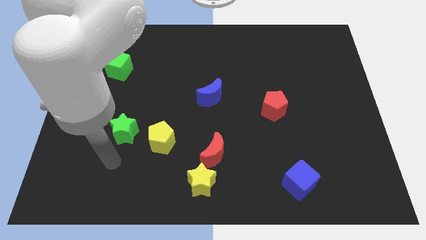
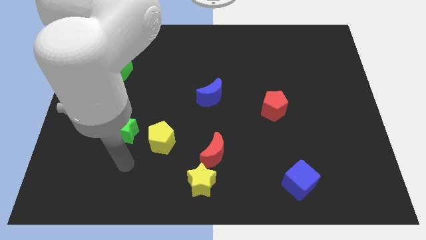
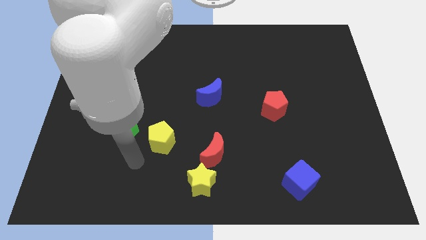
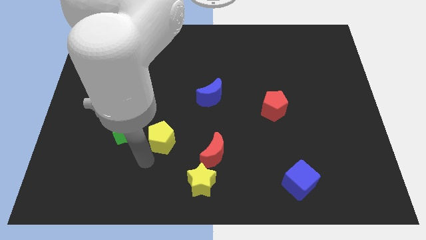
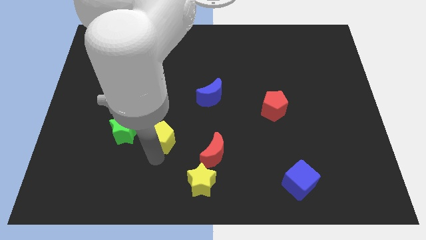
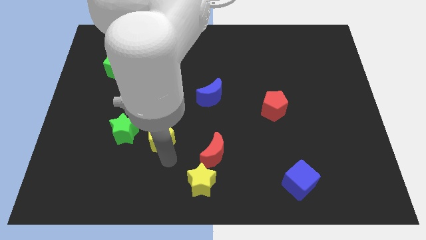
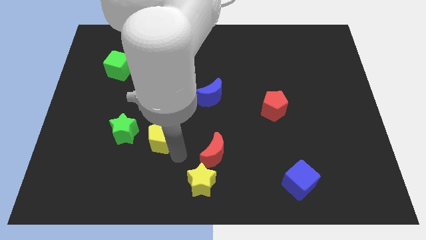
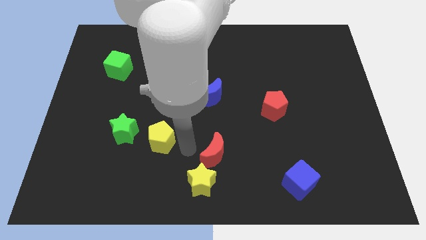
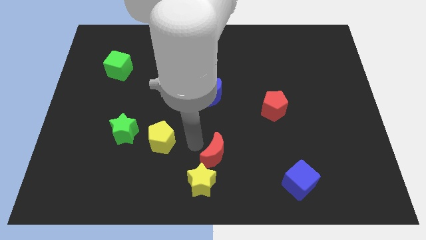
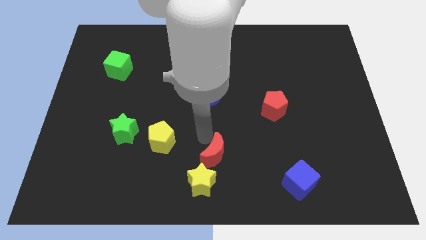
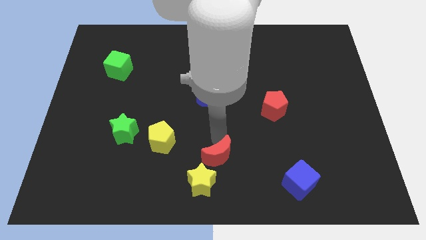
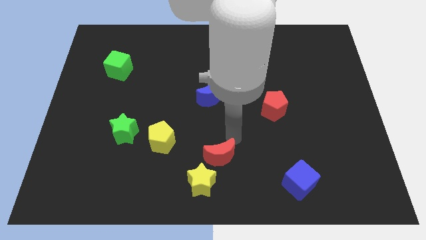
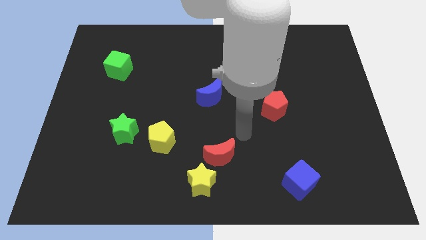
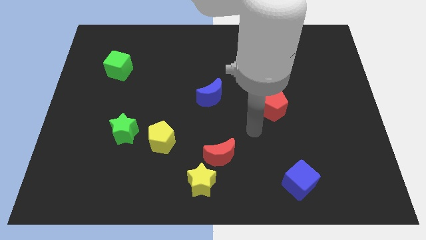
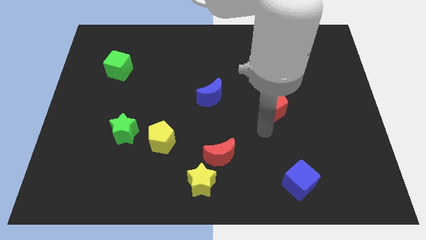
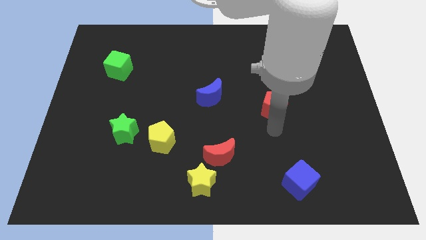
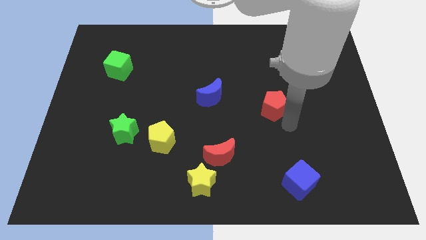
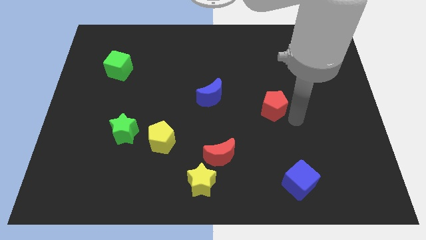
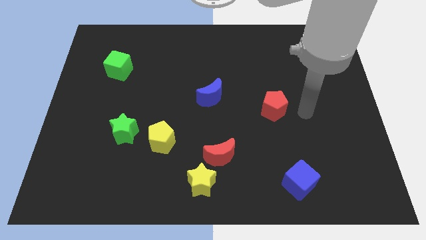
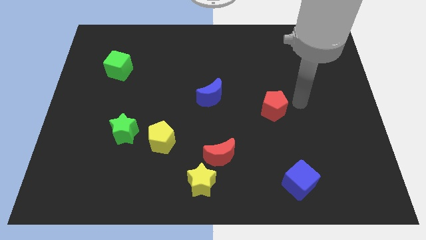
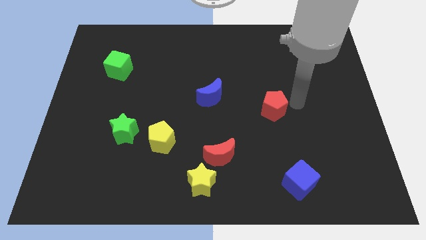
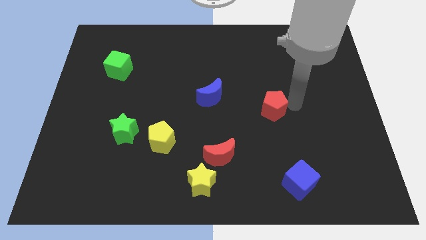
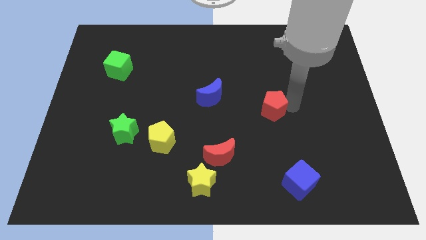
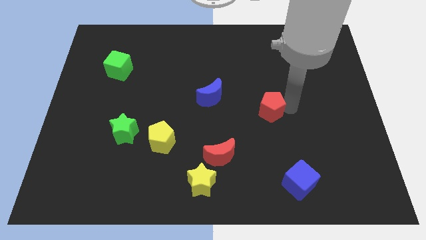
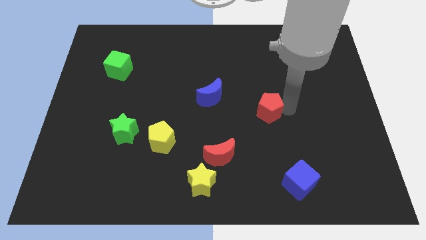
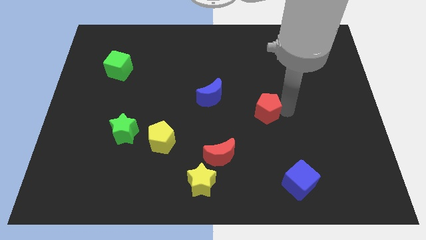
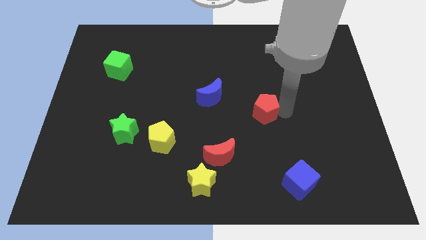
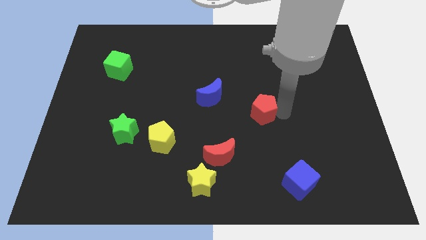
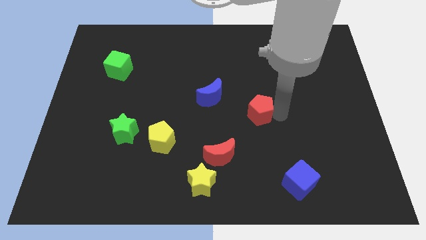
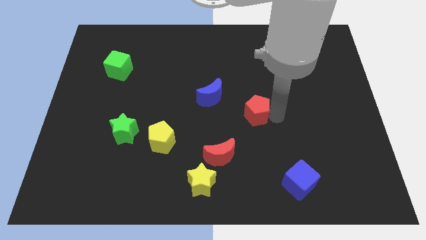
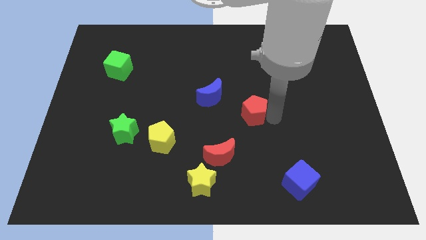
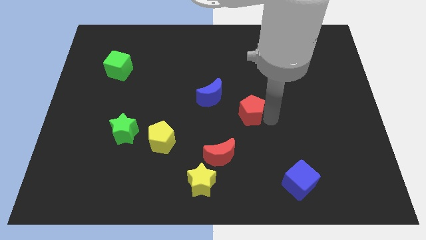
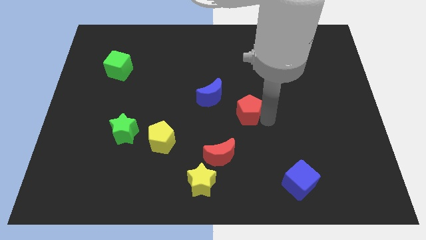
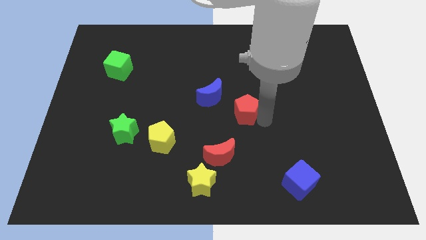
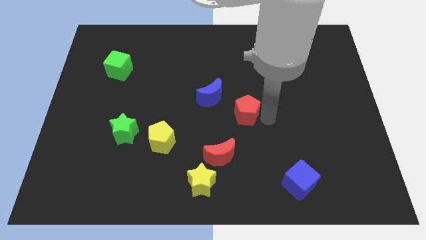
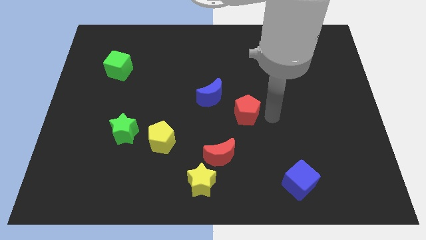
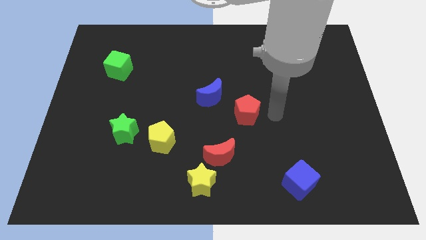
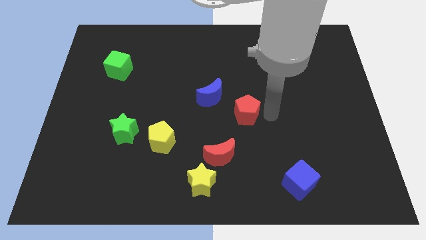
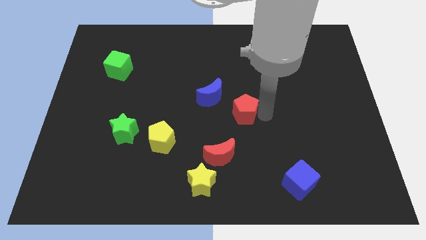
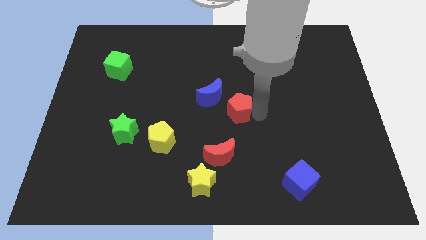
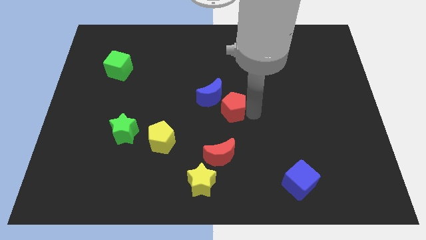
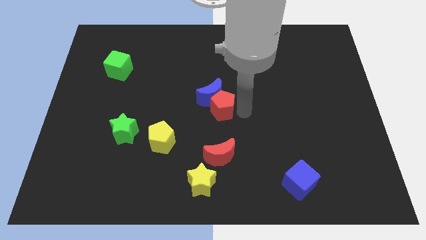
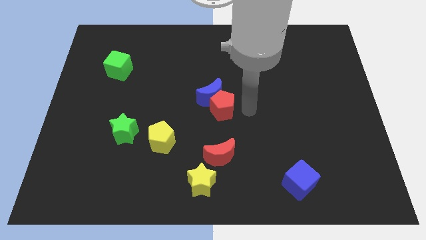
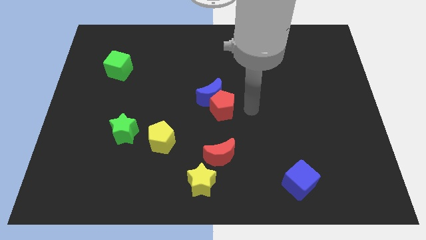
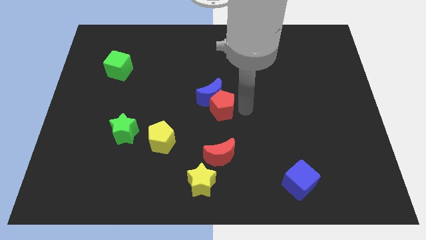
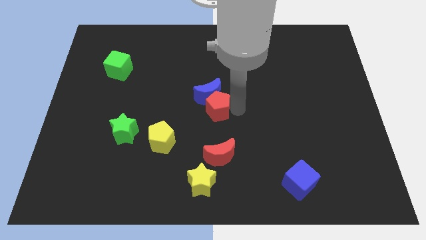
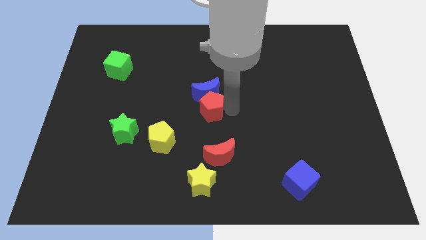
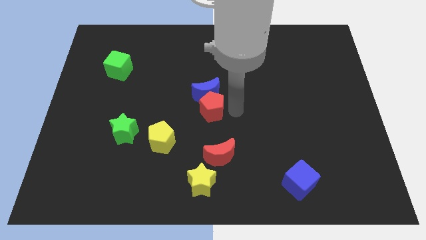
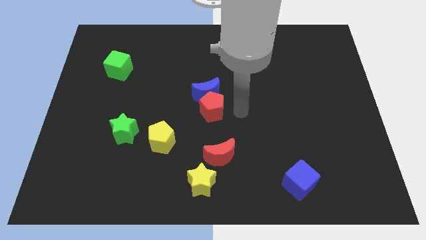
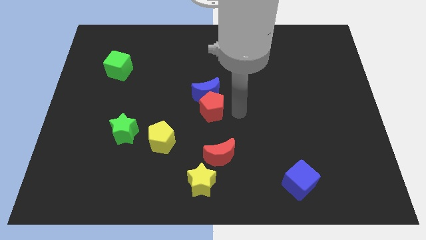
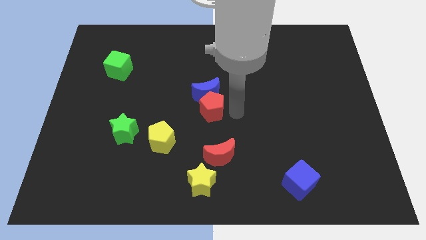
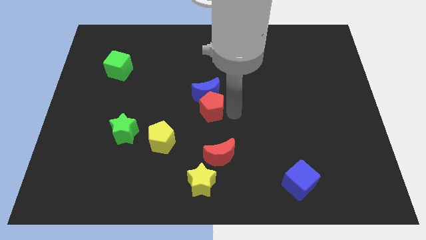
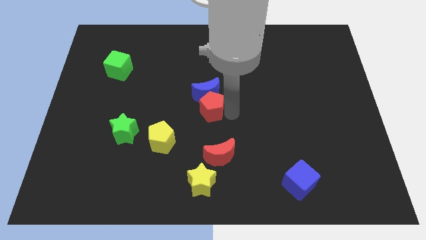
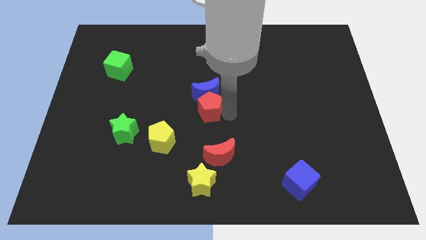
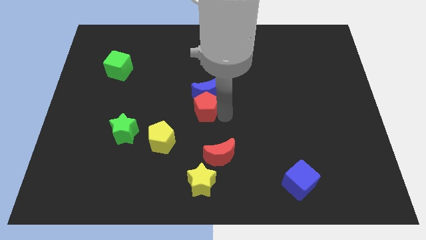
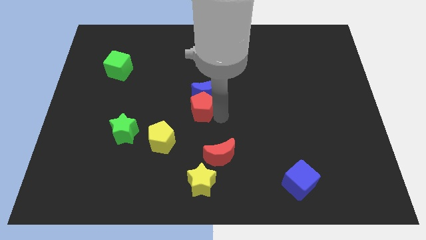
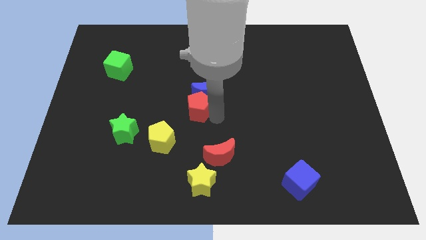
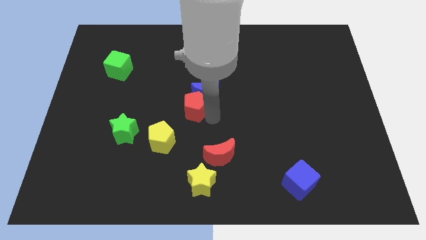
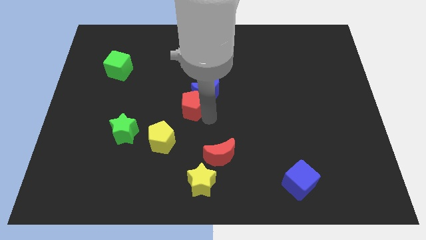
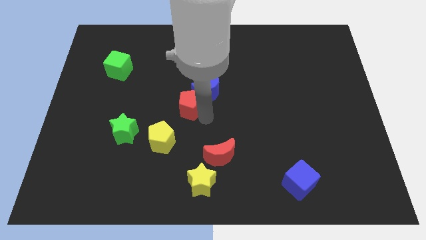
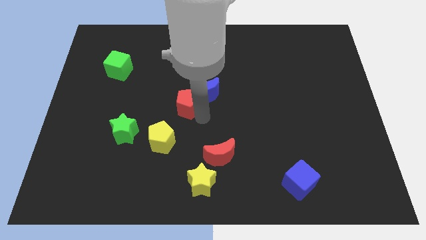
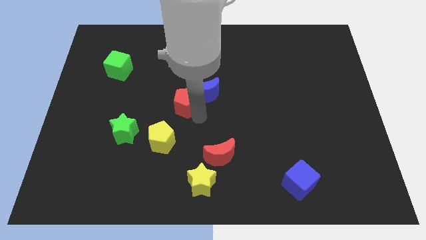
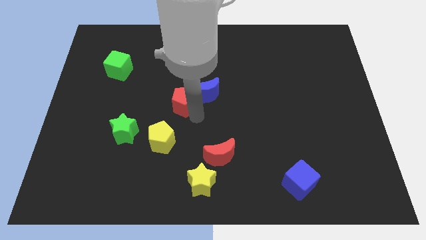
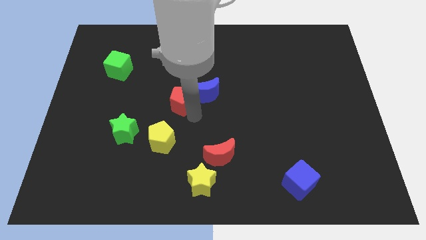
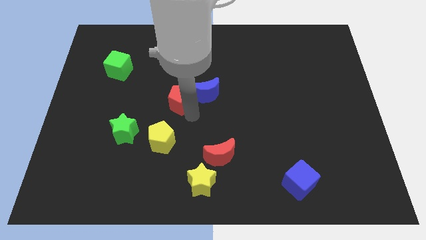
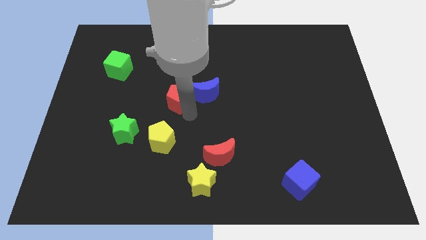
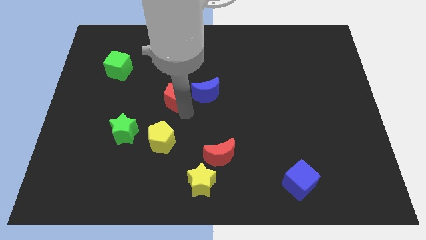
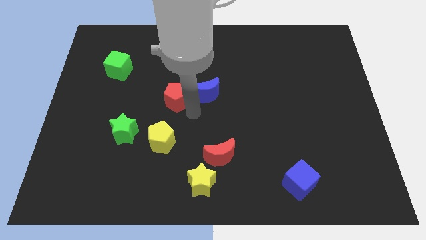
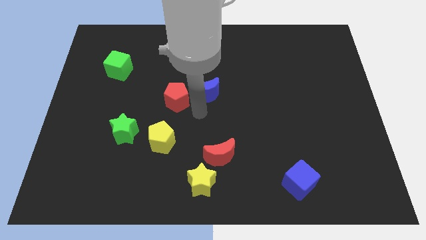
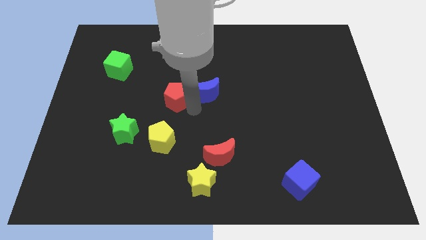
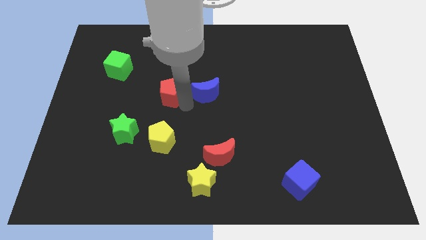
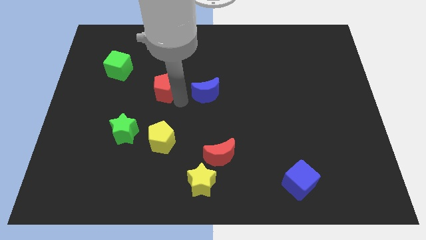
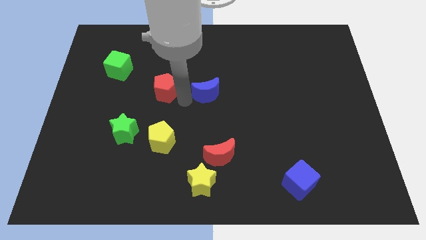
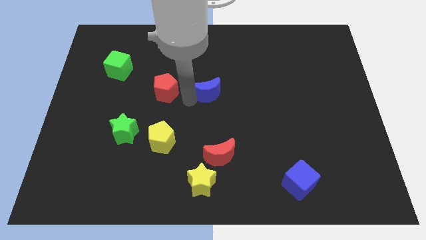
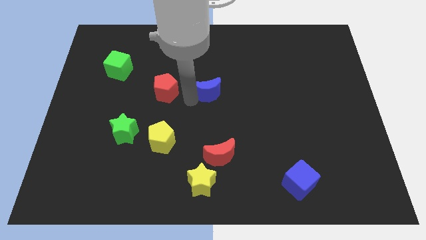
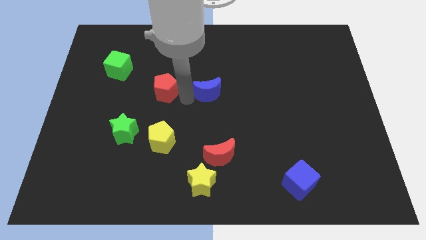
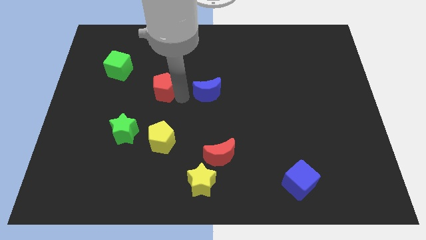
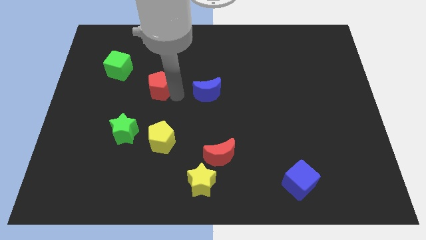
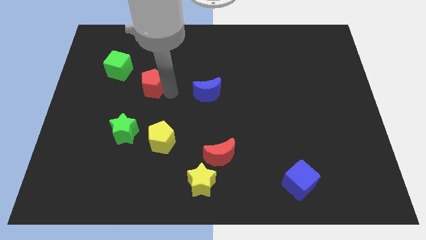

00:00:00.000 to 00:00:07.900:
push the red pentagon diagonally down and to the right of the green cube
